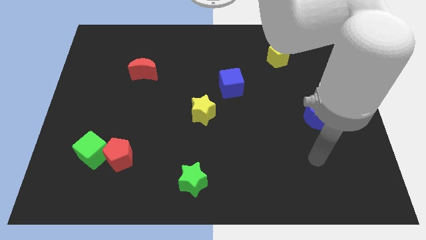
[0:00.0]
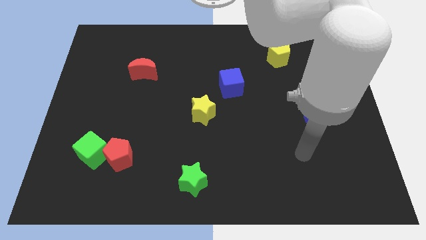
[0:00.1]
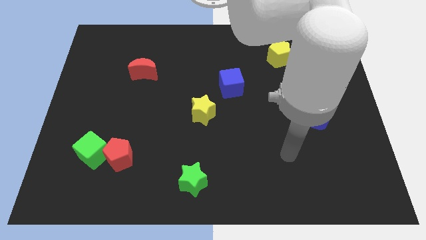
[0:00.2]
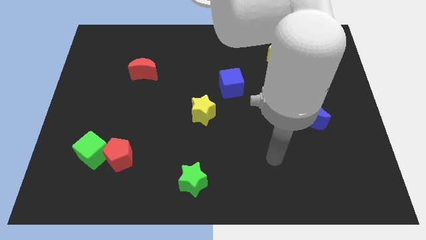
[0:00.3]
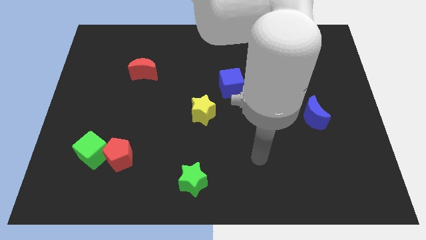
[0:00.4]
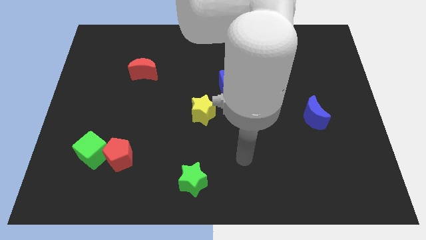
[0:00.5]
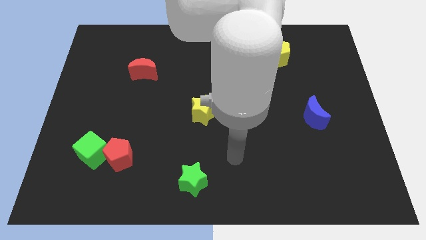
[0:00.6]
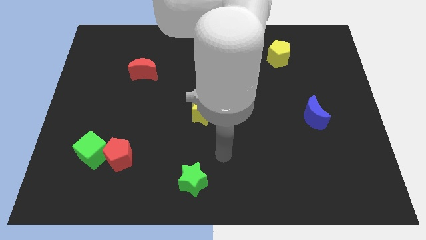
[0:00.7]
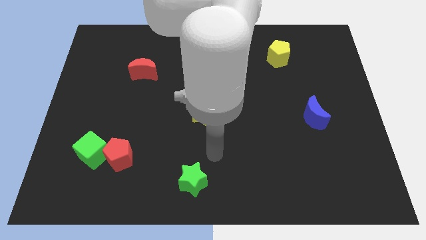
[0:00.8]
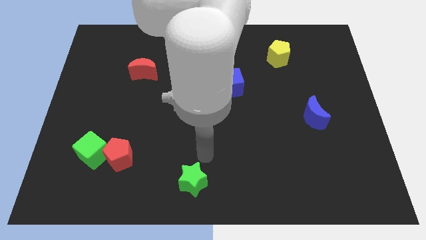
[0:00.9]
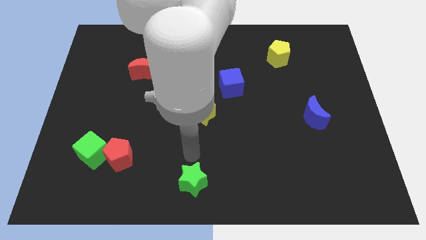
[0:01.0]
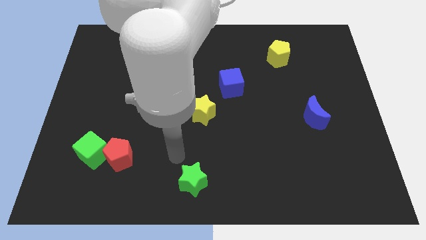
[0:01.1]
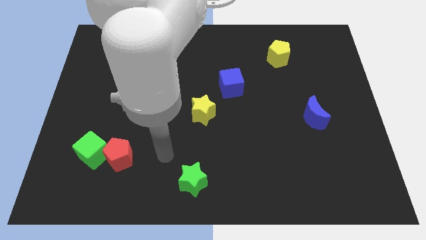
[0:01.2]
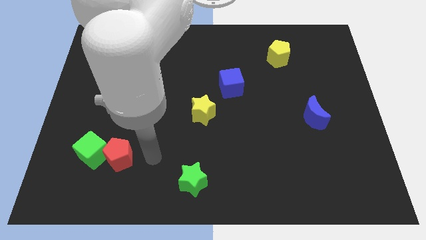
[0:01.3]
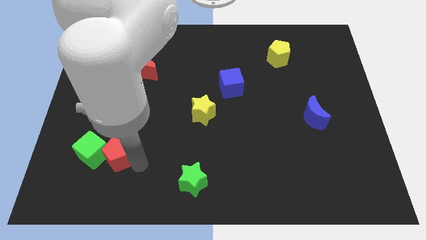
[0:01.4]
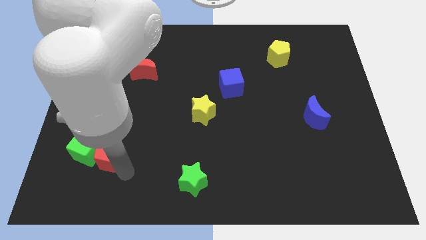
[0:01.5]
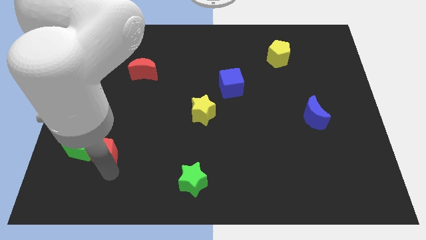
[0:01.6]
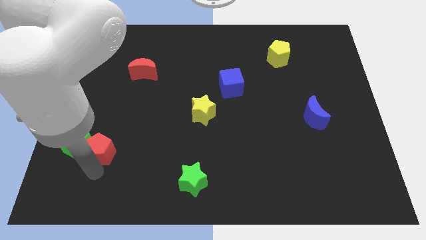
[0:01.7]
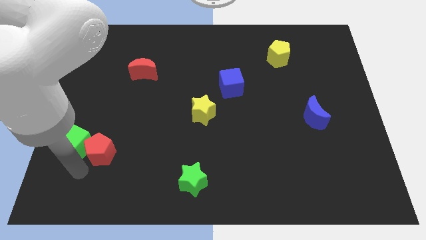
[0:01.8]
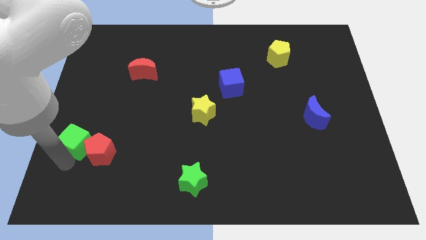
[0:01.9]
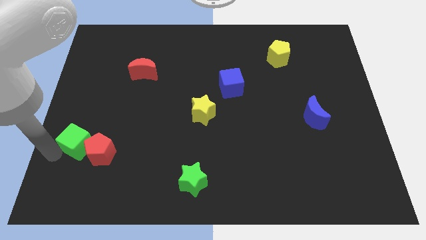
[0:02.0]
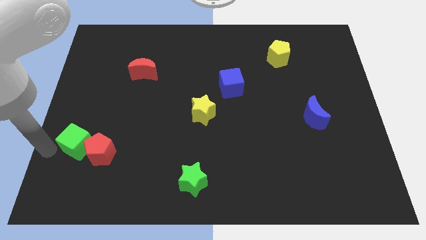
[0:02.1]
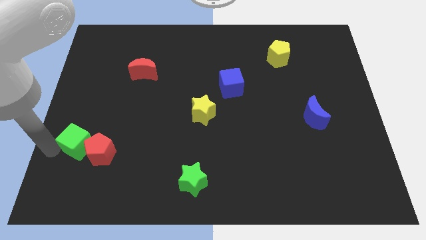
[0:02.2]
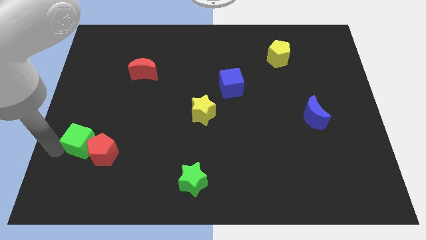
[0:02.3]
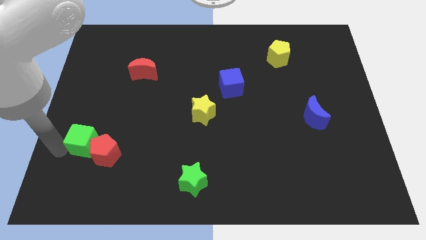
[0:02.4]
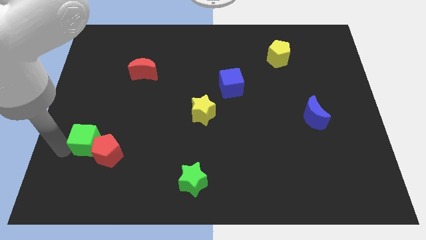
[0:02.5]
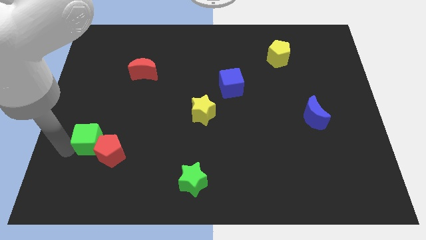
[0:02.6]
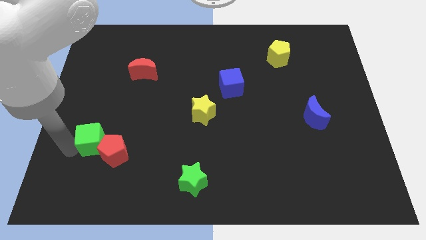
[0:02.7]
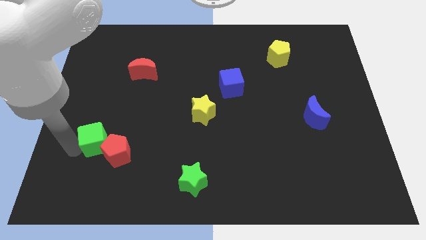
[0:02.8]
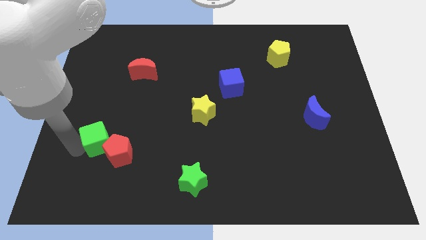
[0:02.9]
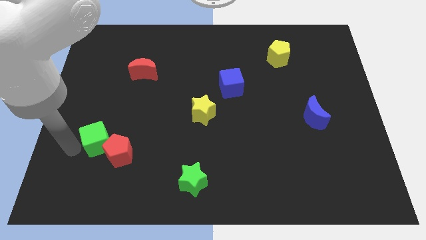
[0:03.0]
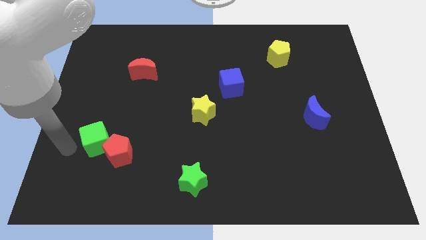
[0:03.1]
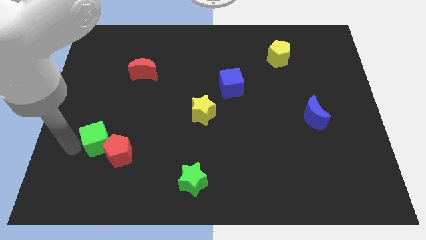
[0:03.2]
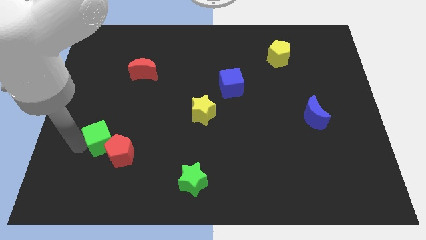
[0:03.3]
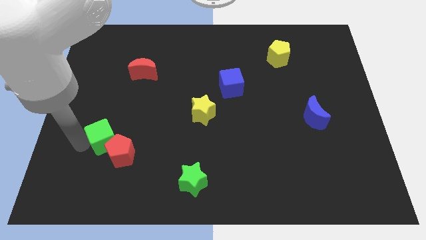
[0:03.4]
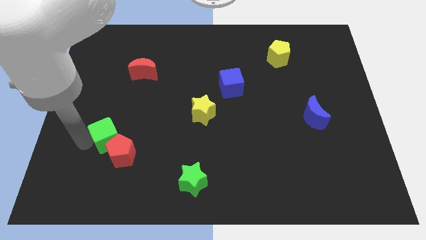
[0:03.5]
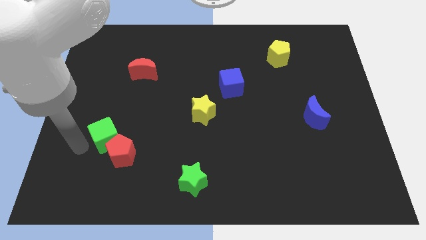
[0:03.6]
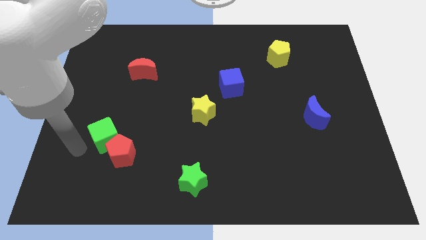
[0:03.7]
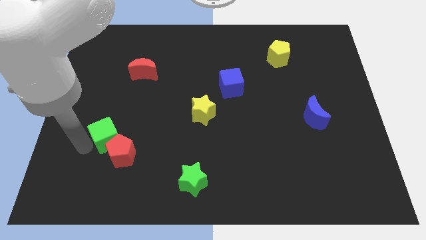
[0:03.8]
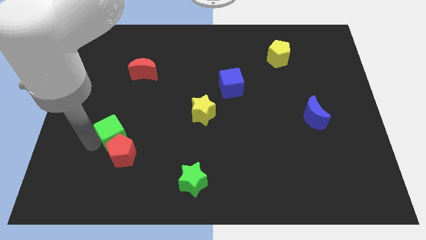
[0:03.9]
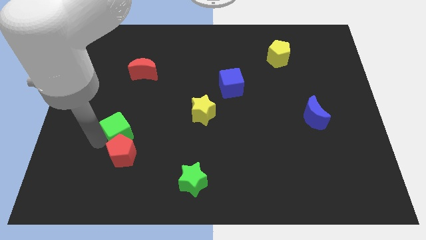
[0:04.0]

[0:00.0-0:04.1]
slightly slide the green cube upwards and right

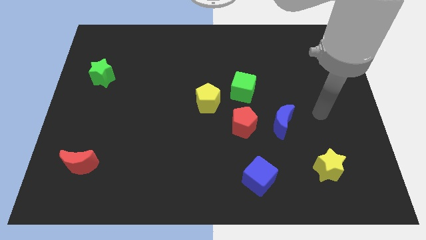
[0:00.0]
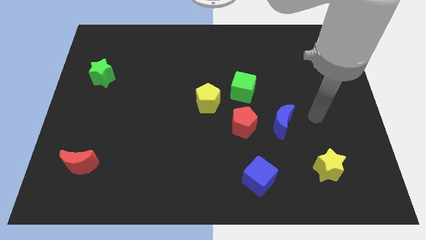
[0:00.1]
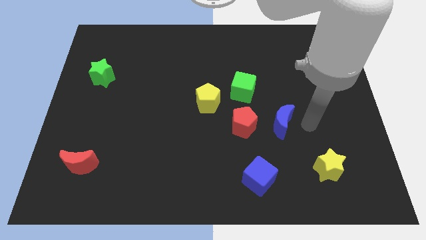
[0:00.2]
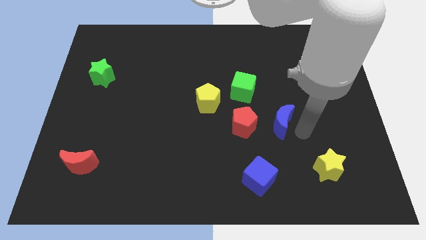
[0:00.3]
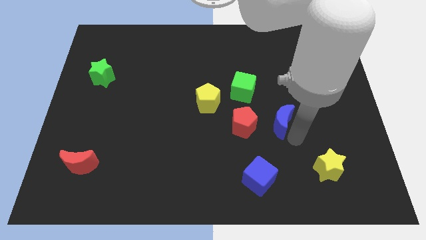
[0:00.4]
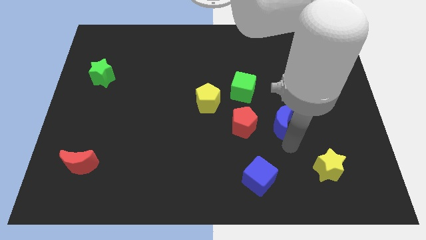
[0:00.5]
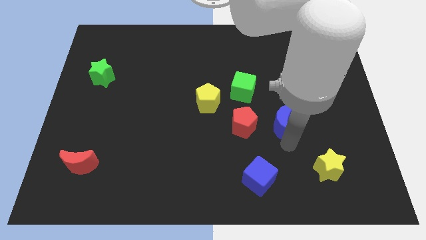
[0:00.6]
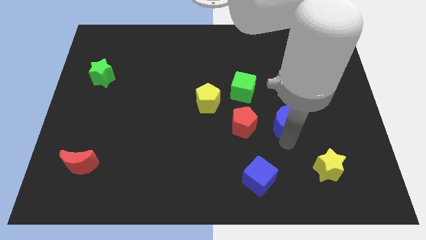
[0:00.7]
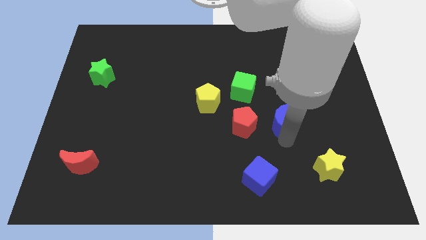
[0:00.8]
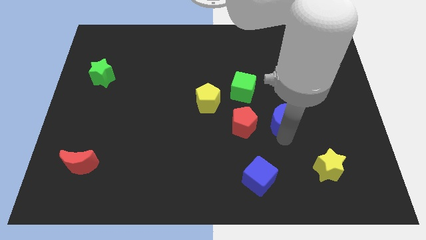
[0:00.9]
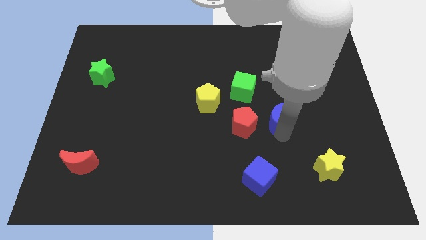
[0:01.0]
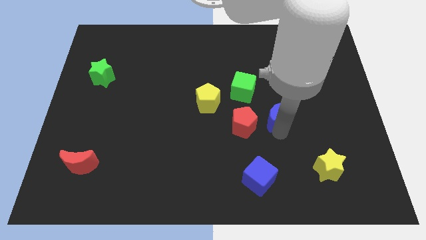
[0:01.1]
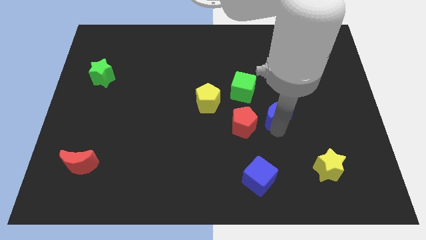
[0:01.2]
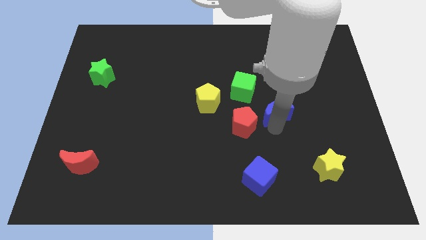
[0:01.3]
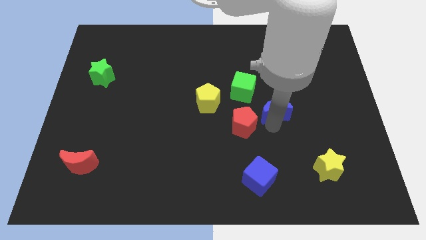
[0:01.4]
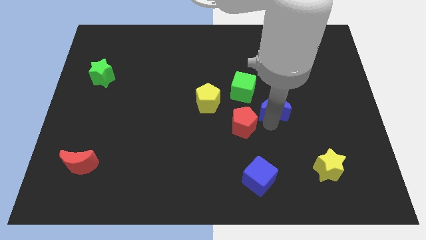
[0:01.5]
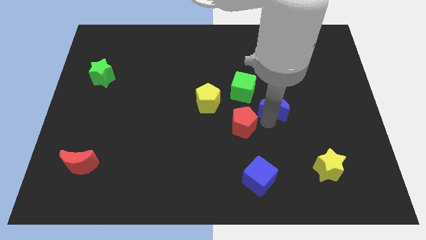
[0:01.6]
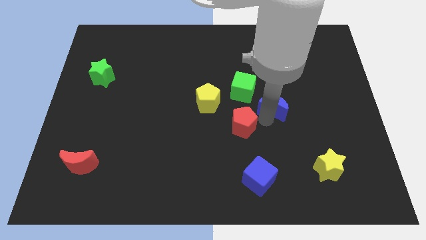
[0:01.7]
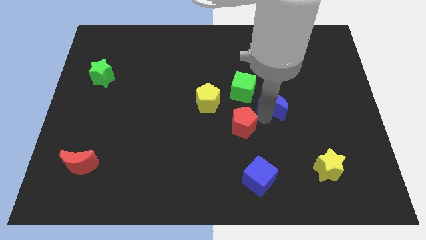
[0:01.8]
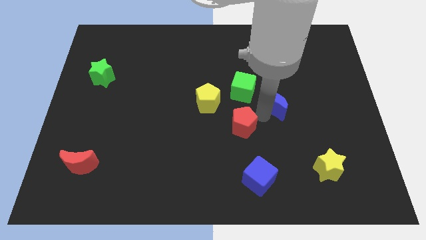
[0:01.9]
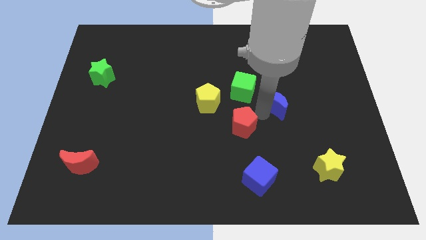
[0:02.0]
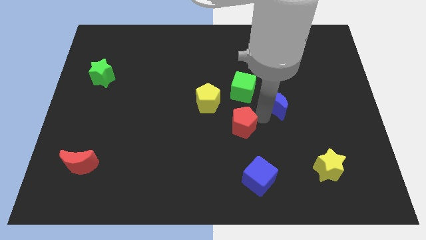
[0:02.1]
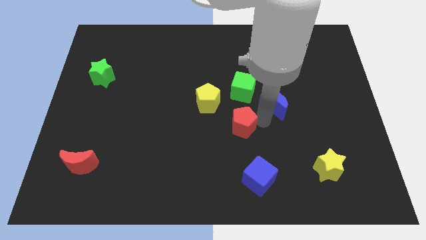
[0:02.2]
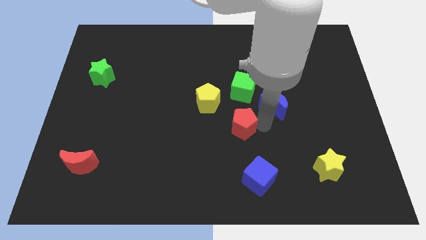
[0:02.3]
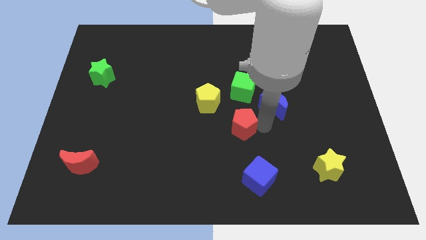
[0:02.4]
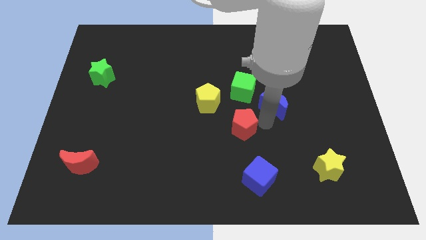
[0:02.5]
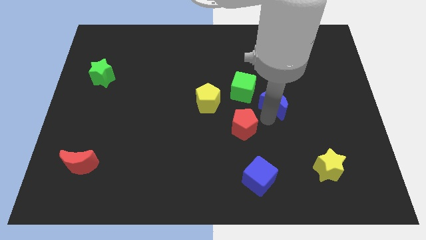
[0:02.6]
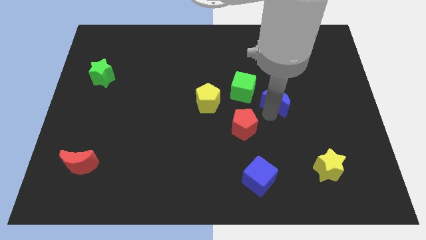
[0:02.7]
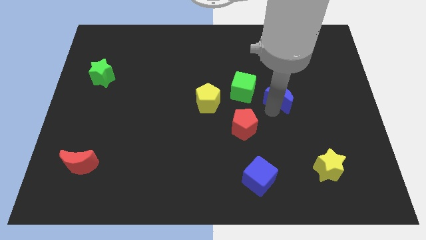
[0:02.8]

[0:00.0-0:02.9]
slightly push the blue moon upwards

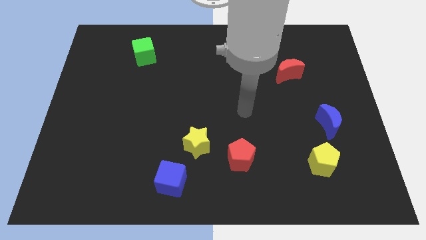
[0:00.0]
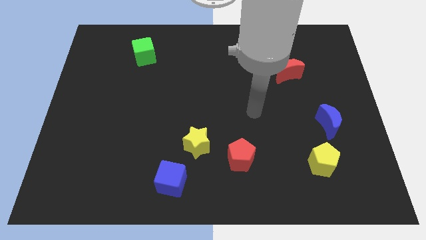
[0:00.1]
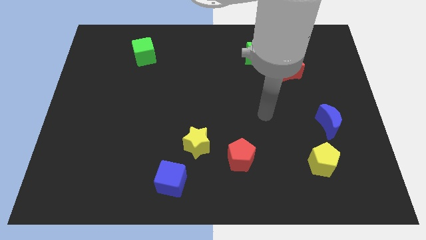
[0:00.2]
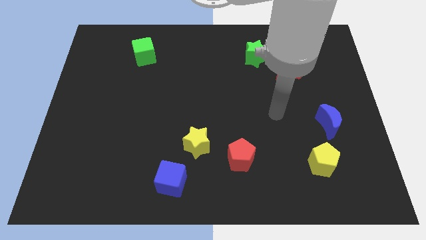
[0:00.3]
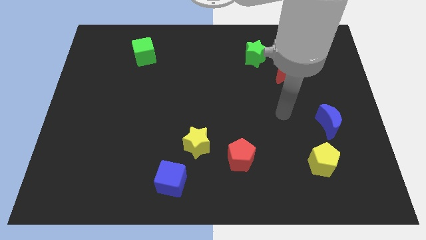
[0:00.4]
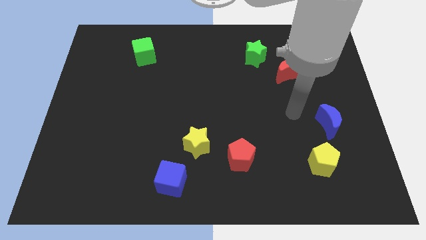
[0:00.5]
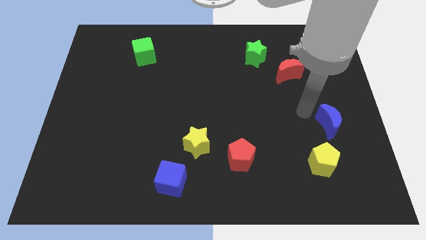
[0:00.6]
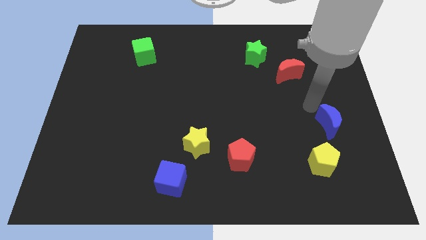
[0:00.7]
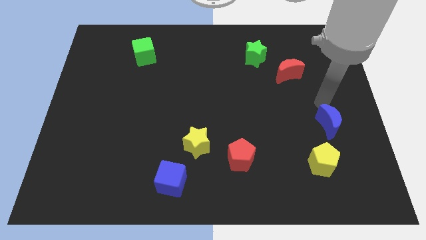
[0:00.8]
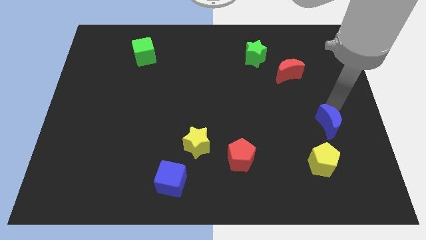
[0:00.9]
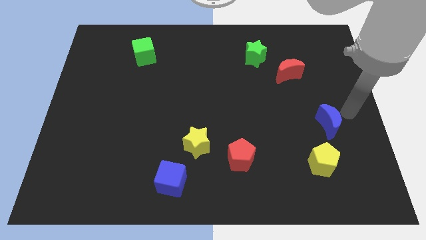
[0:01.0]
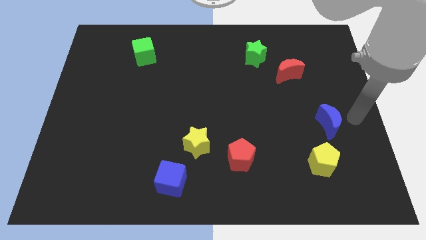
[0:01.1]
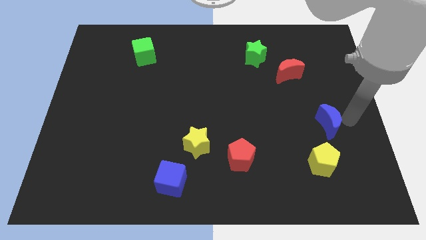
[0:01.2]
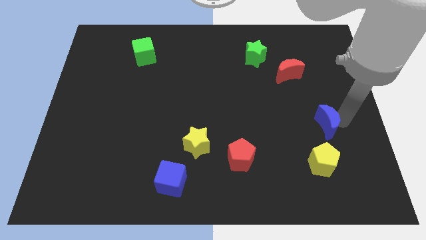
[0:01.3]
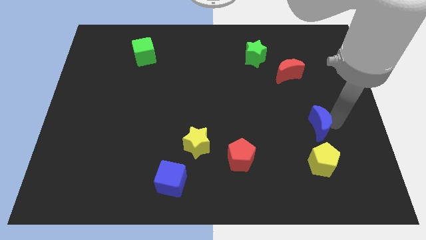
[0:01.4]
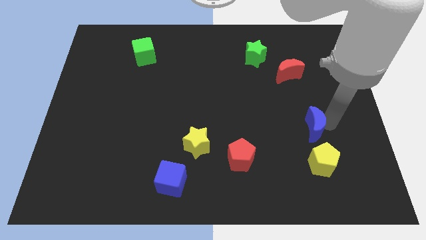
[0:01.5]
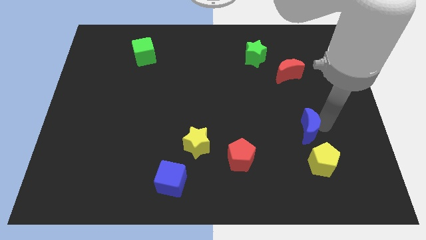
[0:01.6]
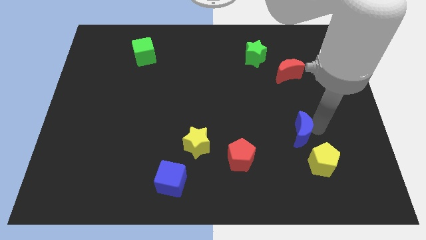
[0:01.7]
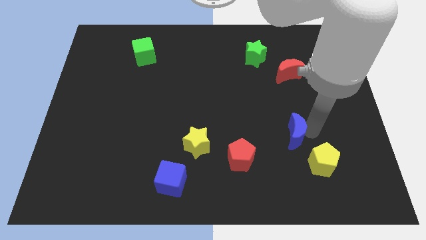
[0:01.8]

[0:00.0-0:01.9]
slide the blue moon to the left a bit
